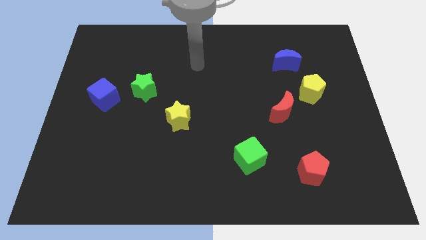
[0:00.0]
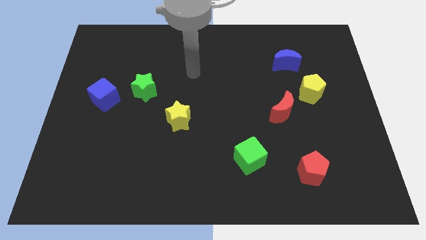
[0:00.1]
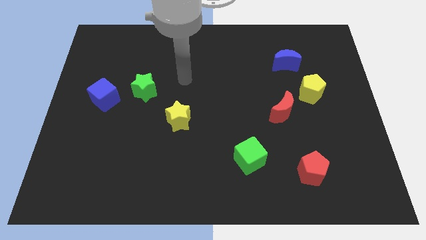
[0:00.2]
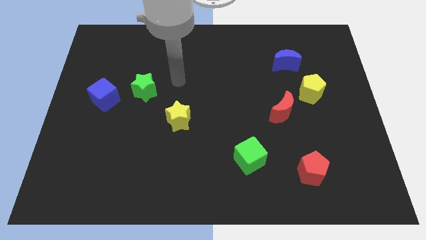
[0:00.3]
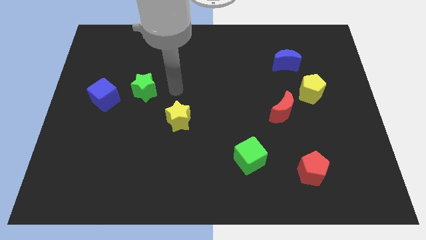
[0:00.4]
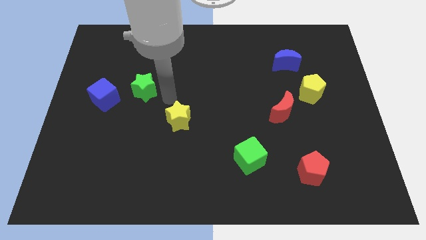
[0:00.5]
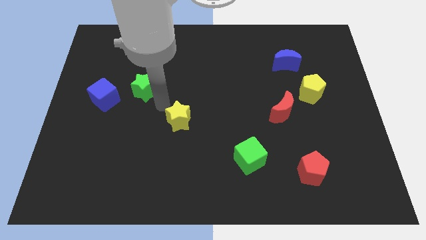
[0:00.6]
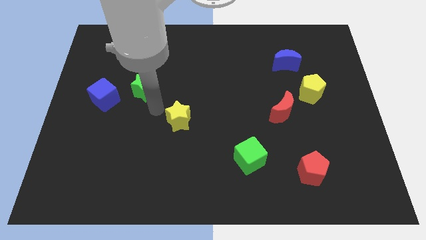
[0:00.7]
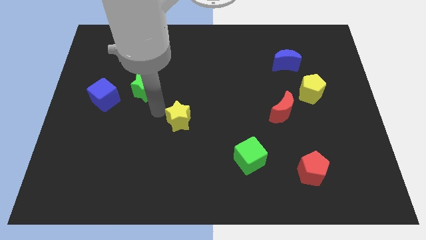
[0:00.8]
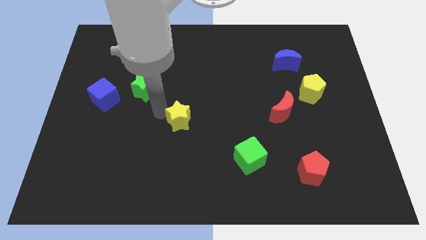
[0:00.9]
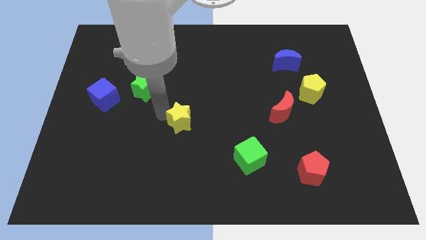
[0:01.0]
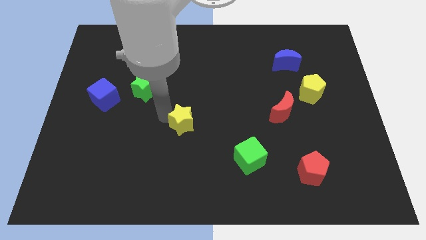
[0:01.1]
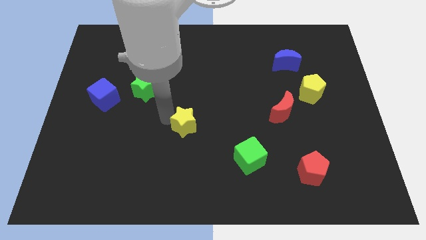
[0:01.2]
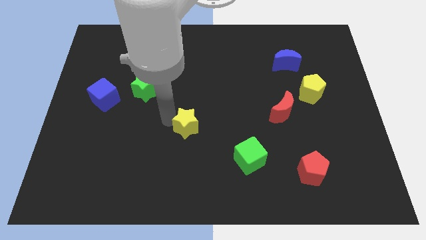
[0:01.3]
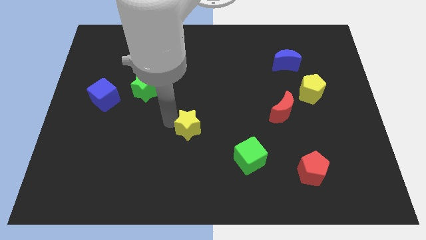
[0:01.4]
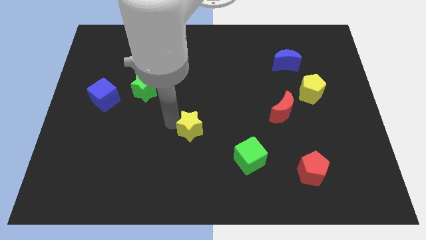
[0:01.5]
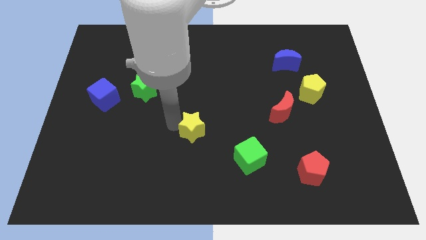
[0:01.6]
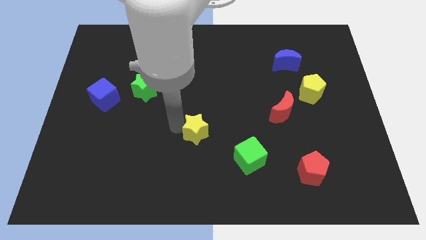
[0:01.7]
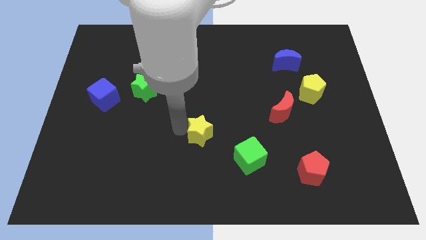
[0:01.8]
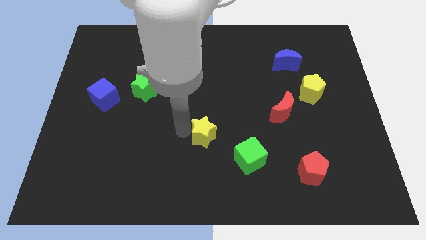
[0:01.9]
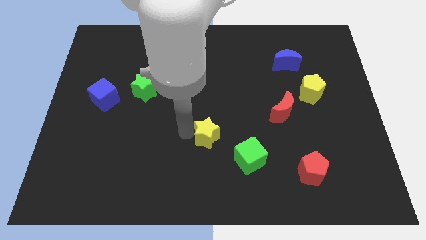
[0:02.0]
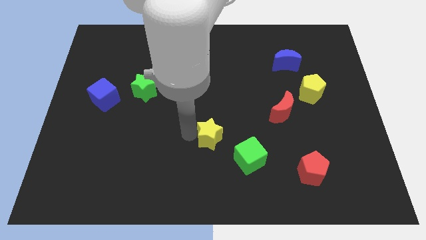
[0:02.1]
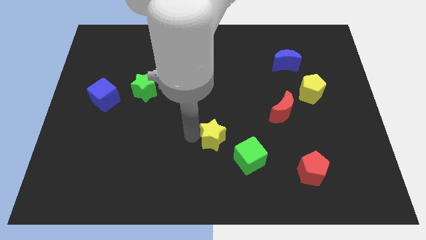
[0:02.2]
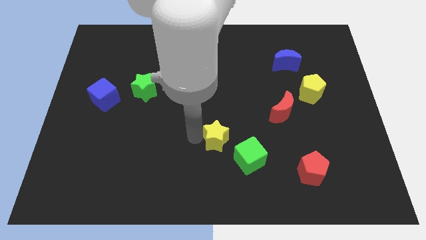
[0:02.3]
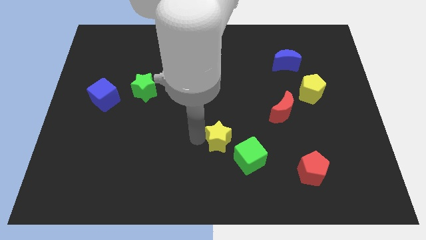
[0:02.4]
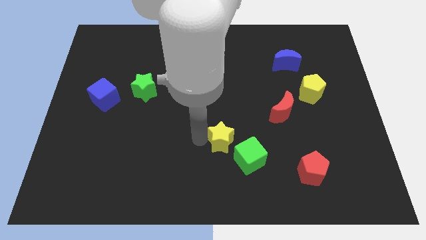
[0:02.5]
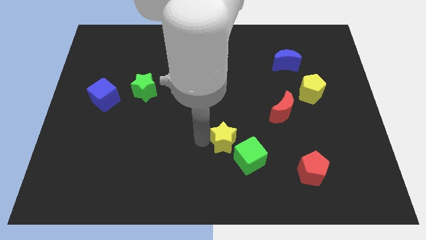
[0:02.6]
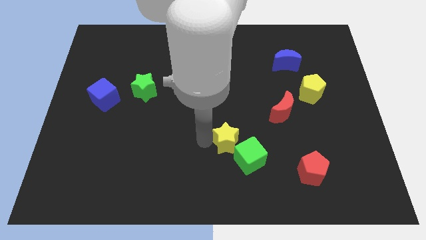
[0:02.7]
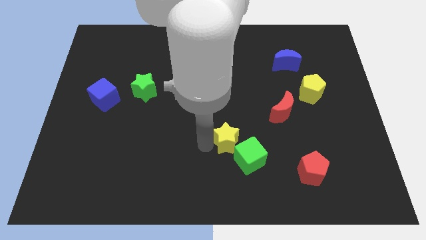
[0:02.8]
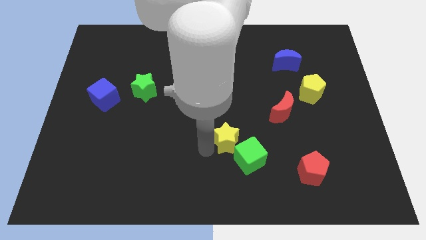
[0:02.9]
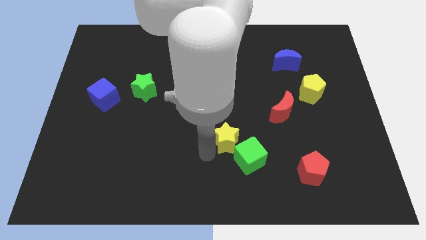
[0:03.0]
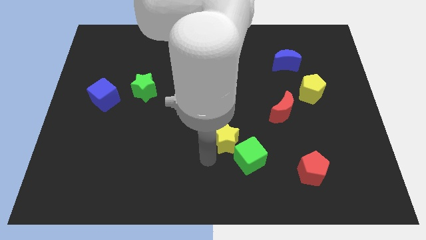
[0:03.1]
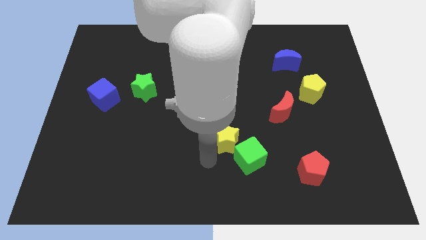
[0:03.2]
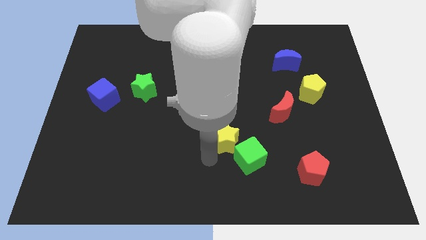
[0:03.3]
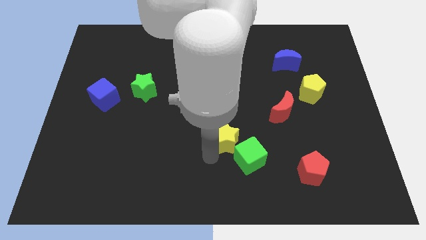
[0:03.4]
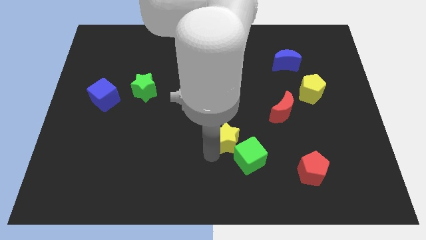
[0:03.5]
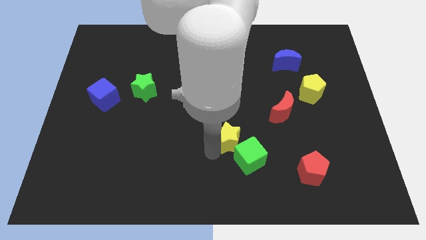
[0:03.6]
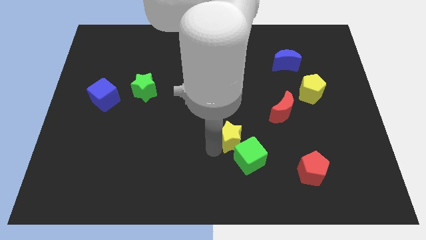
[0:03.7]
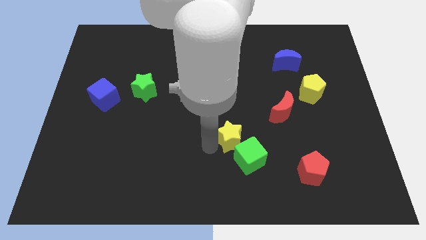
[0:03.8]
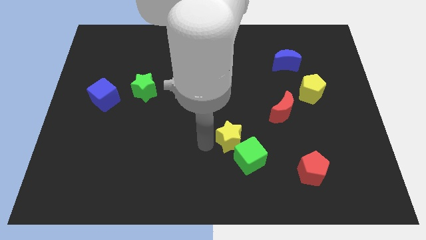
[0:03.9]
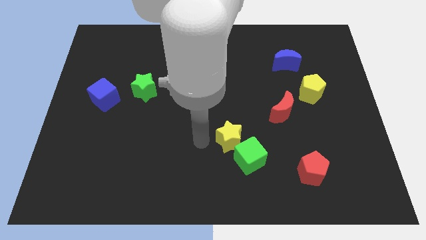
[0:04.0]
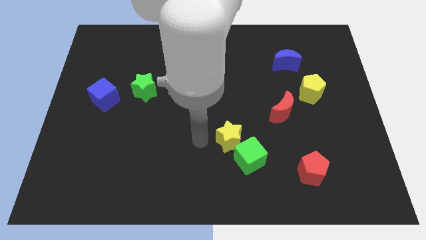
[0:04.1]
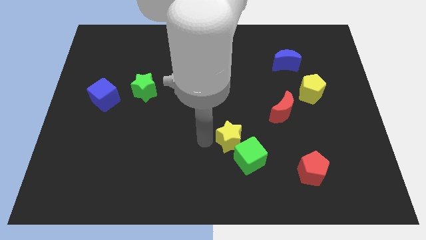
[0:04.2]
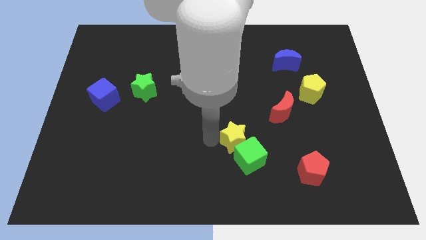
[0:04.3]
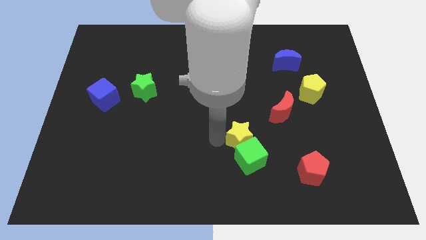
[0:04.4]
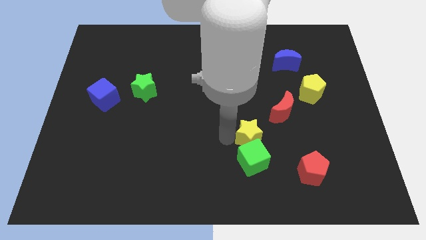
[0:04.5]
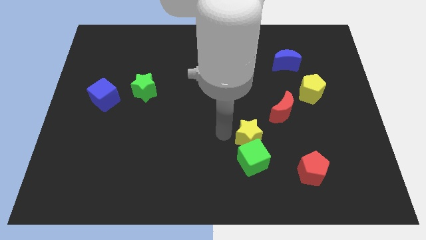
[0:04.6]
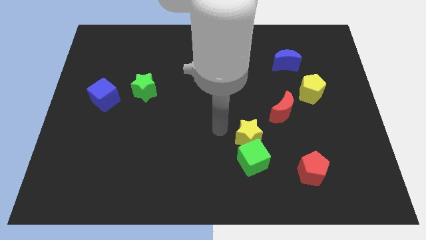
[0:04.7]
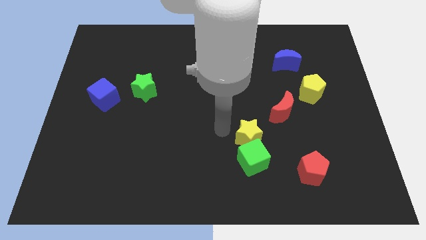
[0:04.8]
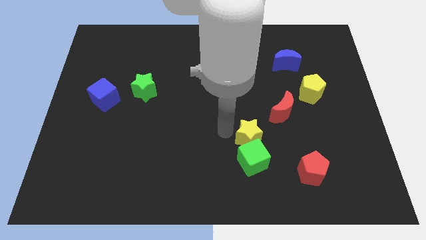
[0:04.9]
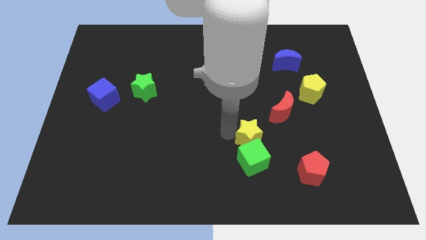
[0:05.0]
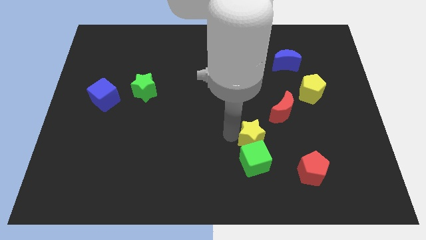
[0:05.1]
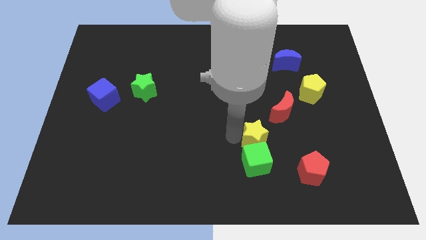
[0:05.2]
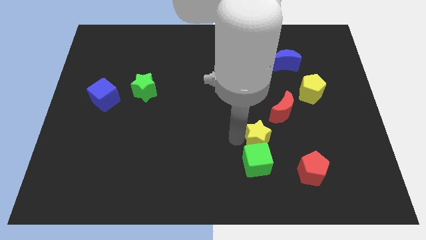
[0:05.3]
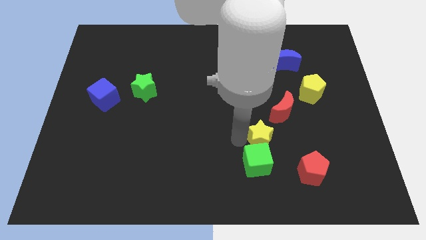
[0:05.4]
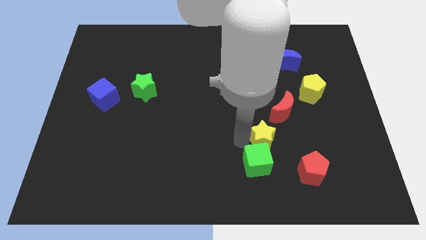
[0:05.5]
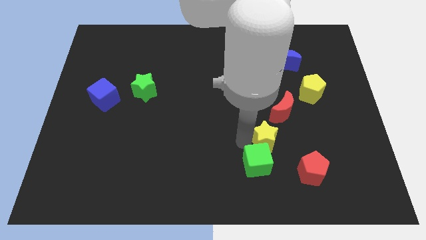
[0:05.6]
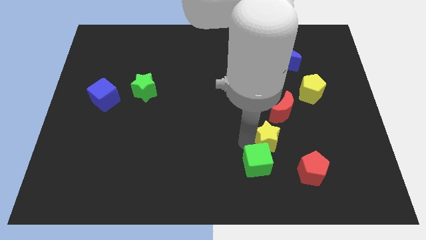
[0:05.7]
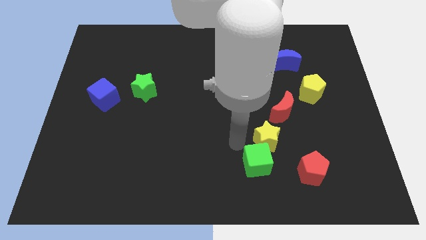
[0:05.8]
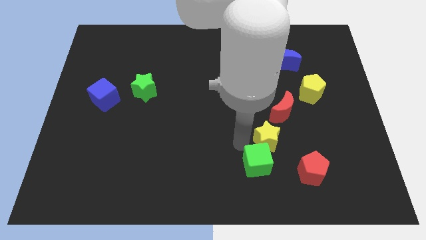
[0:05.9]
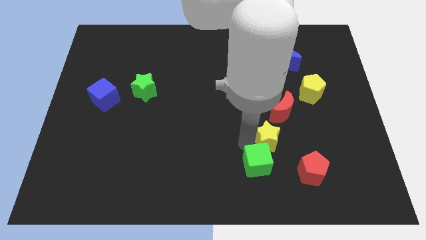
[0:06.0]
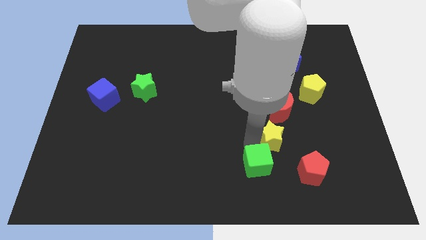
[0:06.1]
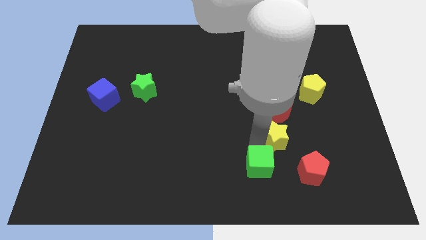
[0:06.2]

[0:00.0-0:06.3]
slide the yellow star to the right

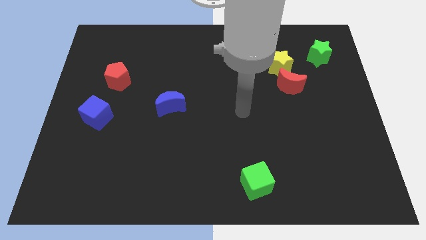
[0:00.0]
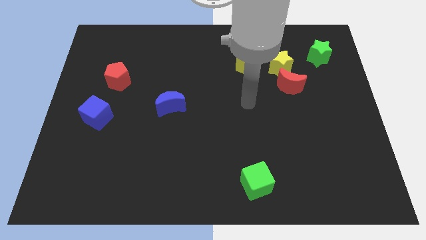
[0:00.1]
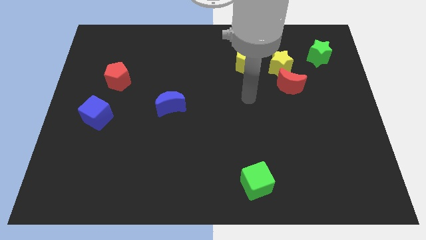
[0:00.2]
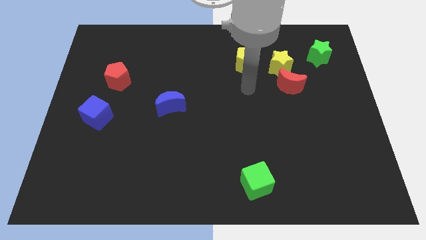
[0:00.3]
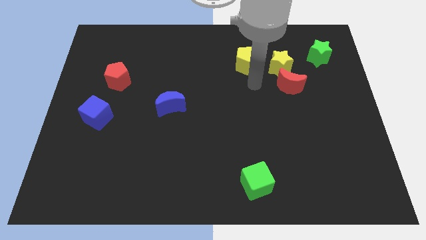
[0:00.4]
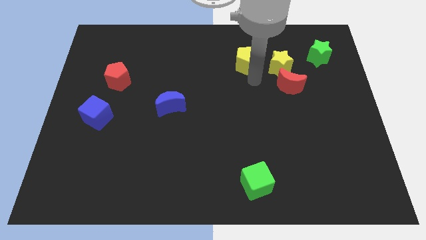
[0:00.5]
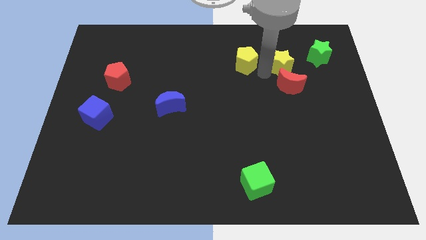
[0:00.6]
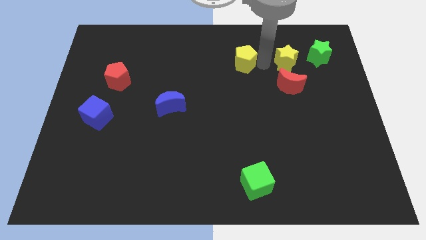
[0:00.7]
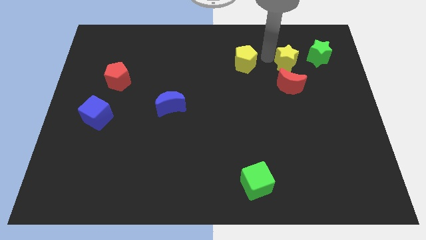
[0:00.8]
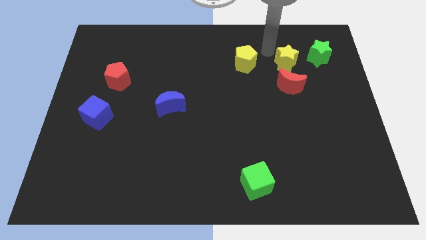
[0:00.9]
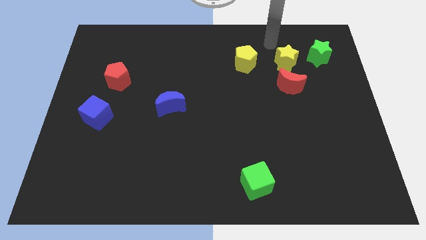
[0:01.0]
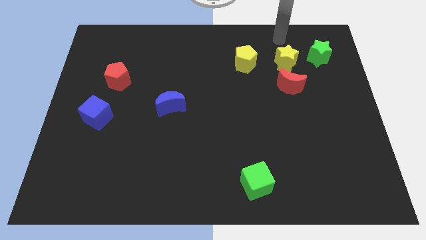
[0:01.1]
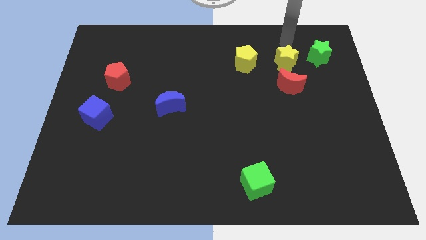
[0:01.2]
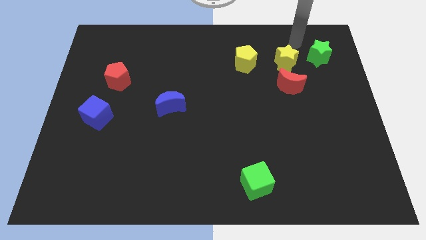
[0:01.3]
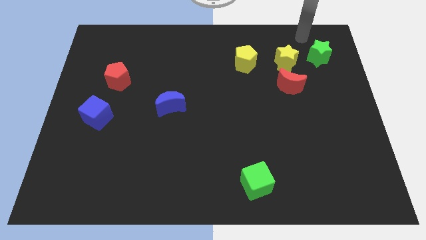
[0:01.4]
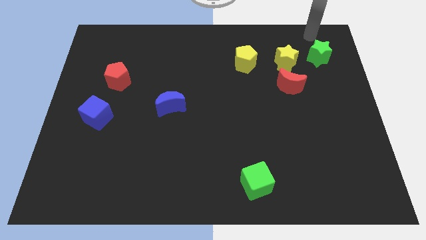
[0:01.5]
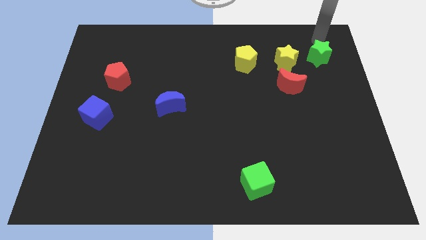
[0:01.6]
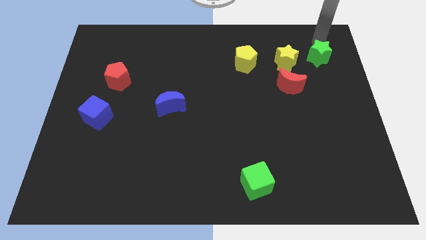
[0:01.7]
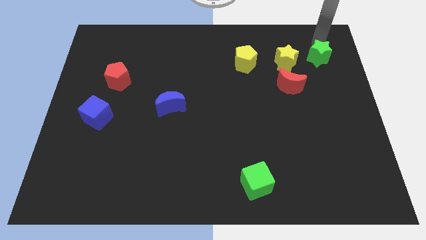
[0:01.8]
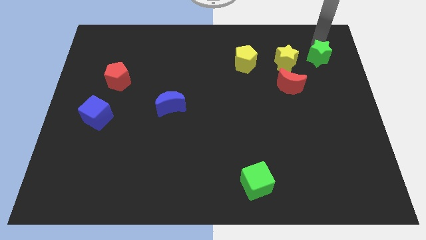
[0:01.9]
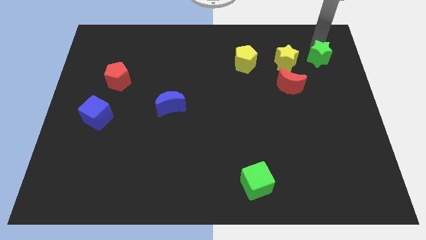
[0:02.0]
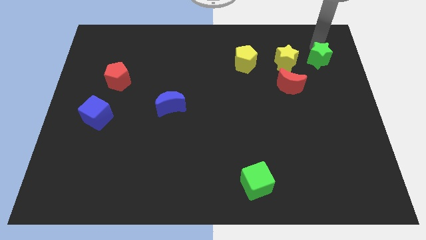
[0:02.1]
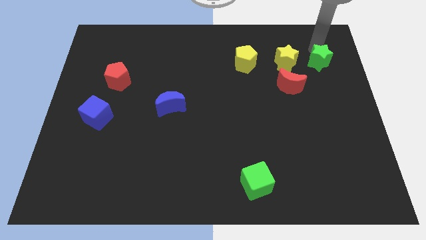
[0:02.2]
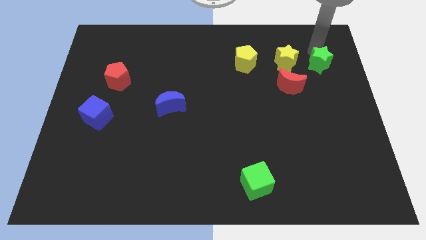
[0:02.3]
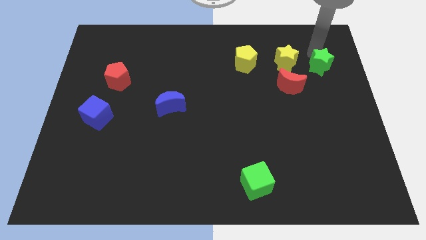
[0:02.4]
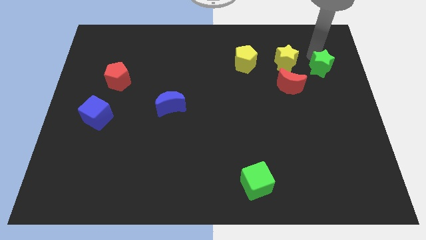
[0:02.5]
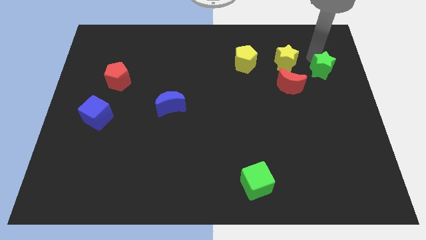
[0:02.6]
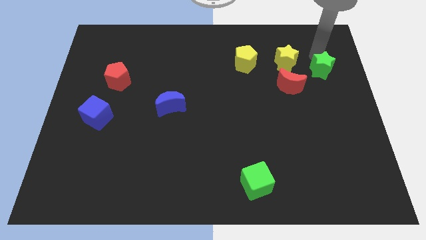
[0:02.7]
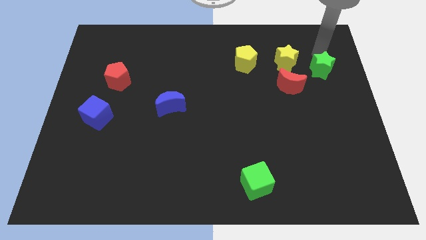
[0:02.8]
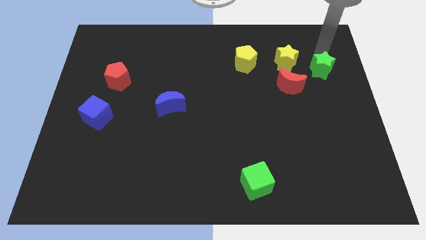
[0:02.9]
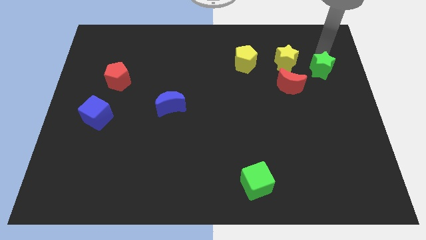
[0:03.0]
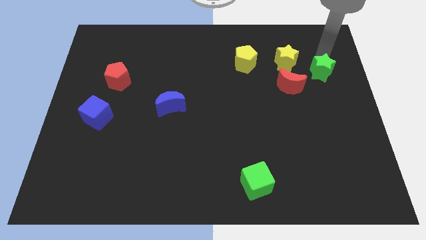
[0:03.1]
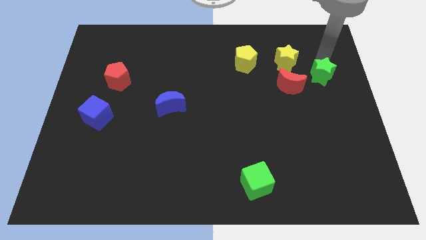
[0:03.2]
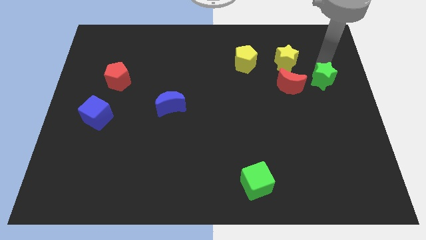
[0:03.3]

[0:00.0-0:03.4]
push the green star down slightly
